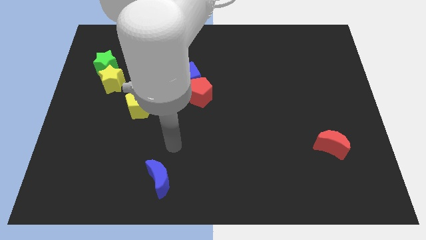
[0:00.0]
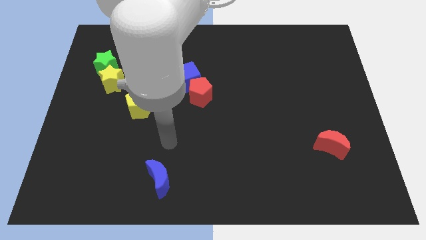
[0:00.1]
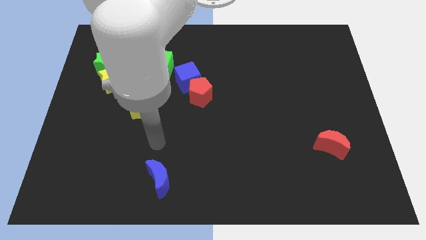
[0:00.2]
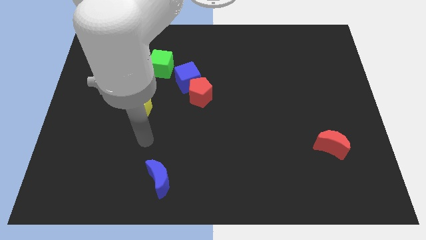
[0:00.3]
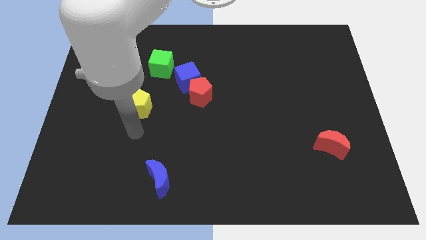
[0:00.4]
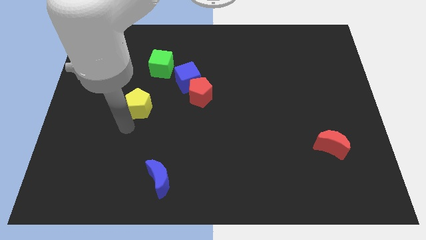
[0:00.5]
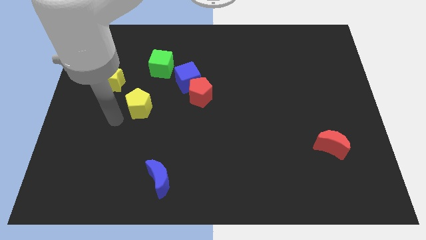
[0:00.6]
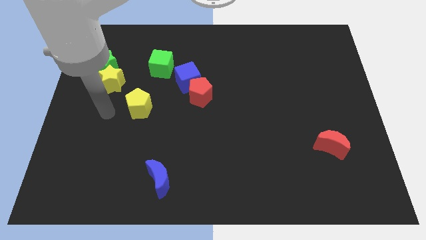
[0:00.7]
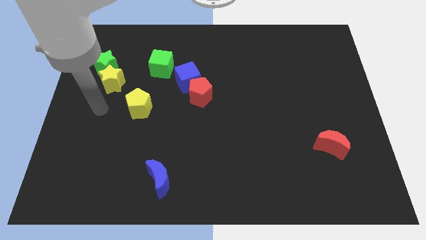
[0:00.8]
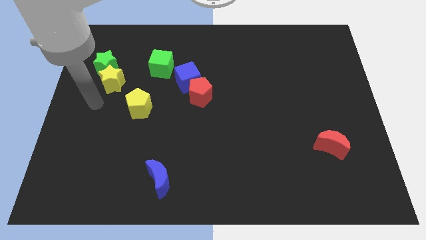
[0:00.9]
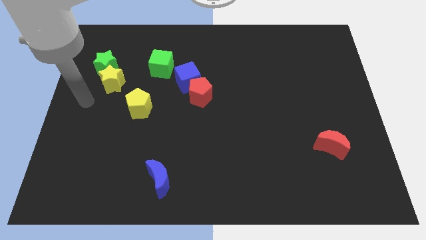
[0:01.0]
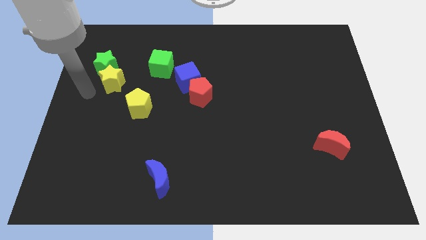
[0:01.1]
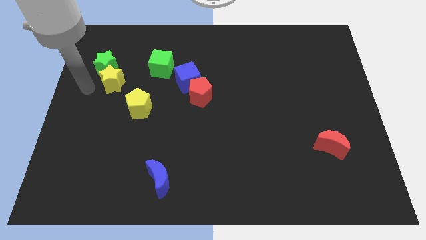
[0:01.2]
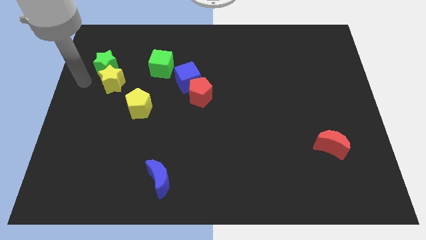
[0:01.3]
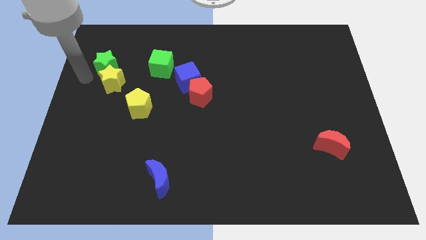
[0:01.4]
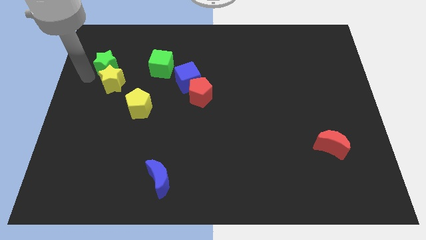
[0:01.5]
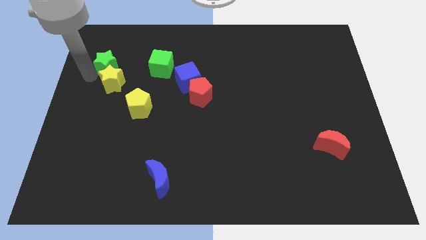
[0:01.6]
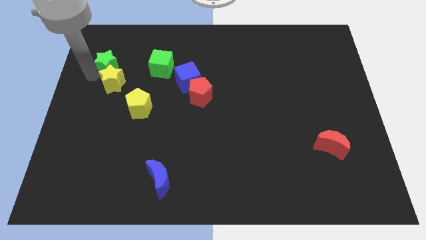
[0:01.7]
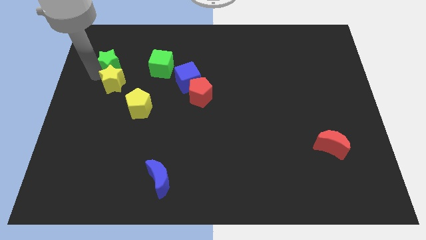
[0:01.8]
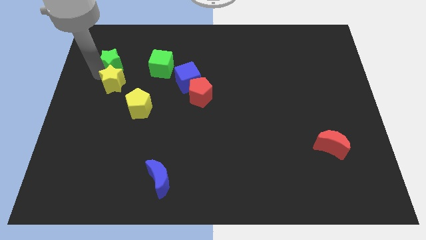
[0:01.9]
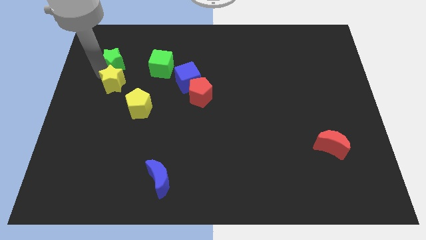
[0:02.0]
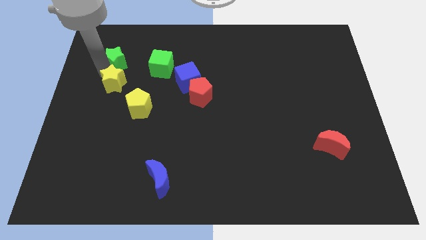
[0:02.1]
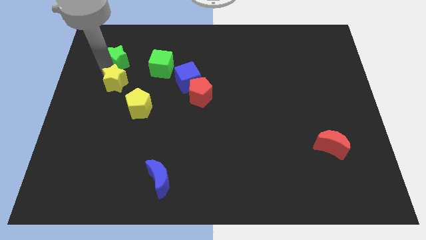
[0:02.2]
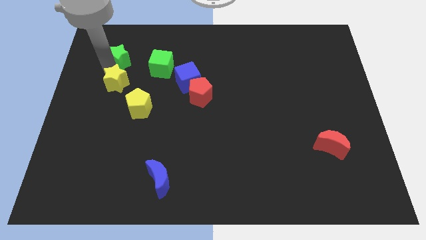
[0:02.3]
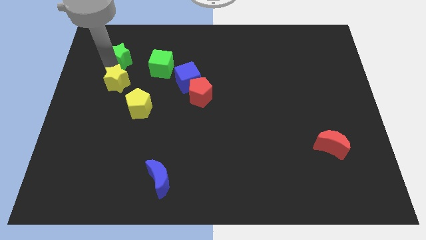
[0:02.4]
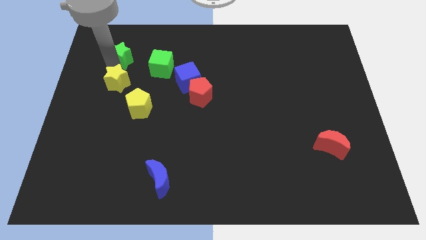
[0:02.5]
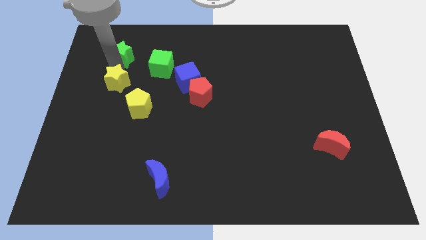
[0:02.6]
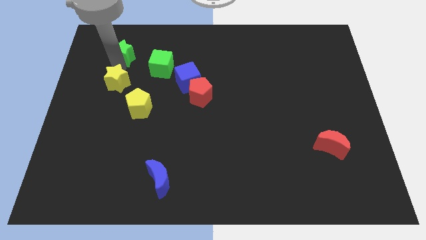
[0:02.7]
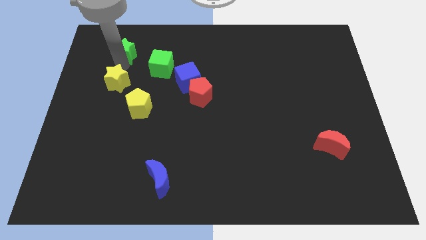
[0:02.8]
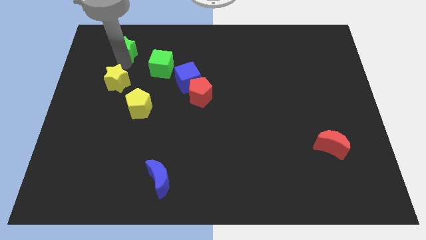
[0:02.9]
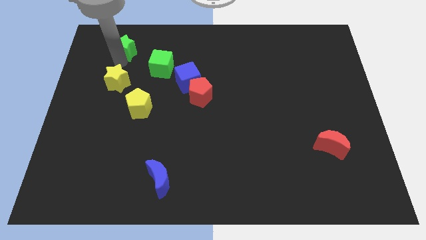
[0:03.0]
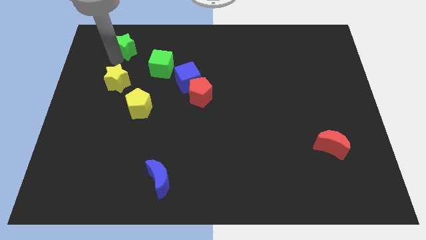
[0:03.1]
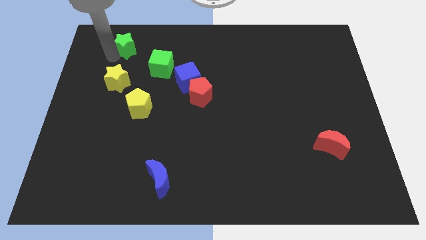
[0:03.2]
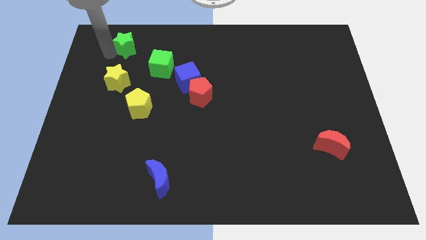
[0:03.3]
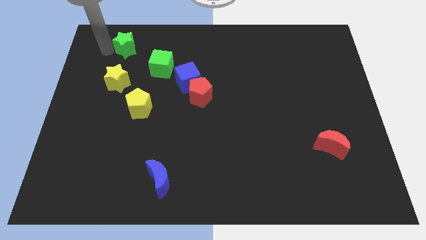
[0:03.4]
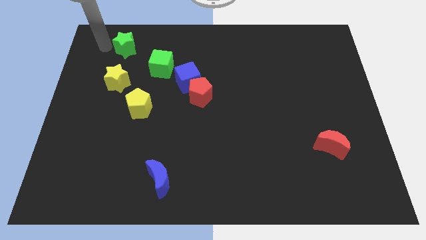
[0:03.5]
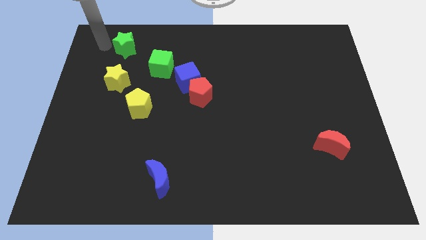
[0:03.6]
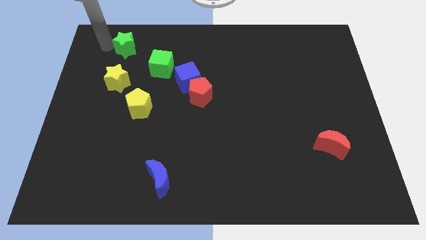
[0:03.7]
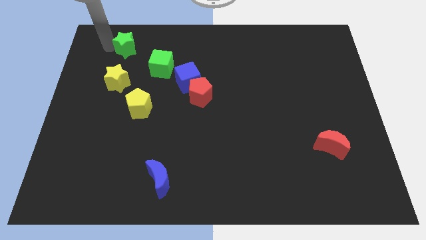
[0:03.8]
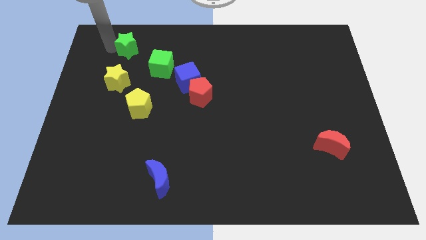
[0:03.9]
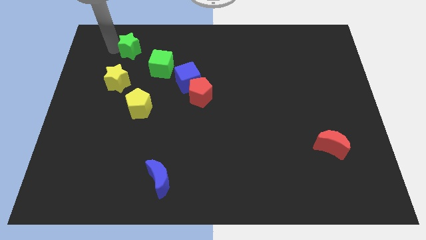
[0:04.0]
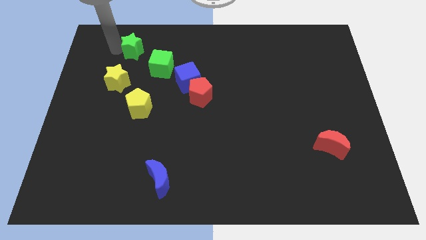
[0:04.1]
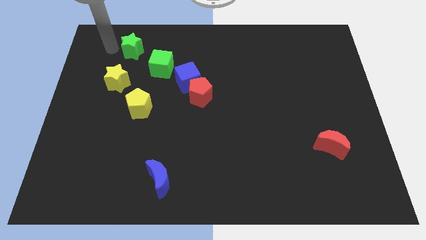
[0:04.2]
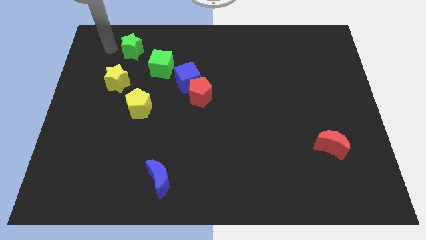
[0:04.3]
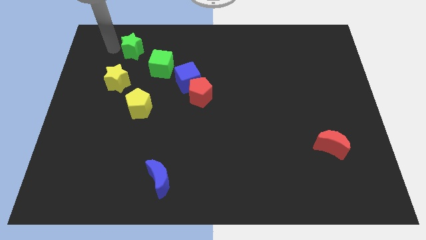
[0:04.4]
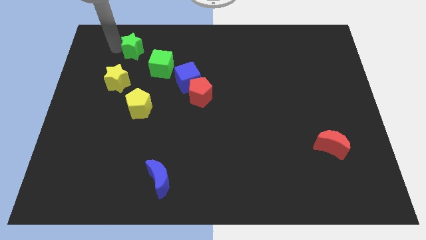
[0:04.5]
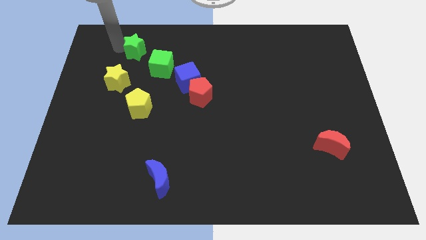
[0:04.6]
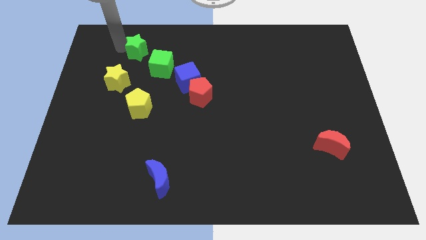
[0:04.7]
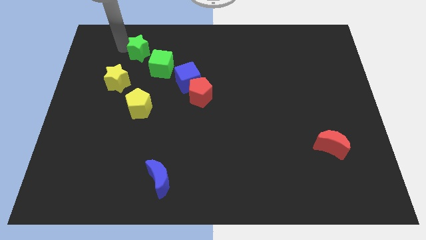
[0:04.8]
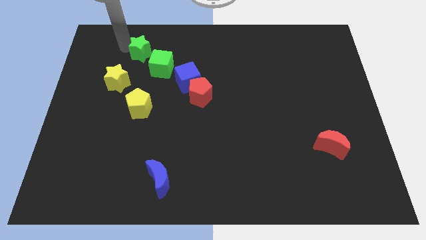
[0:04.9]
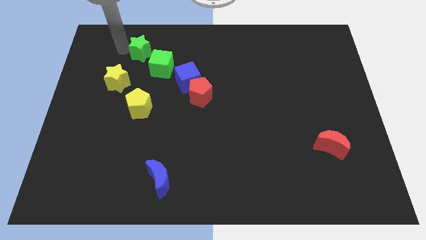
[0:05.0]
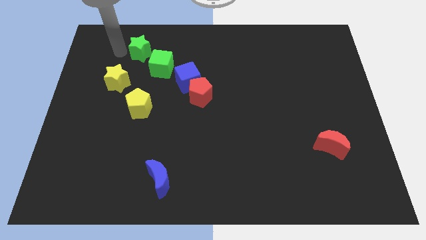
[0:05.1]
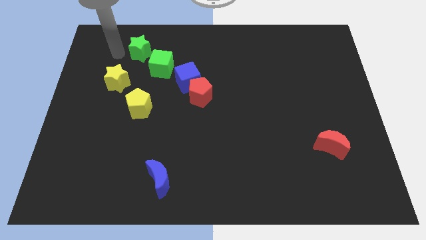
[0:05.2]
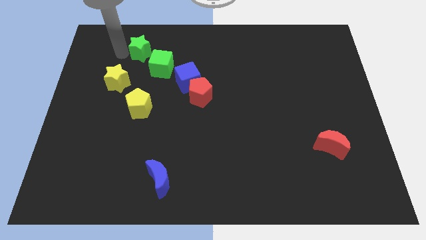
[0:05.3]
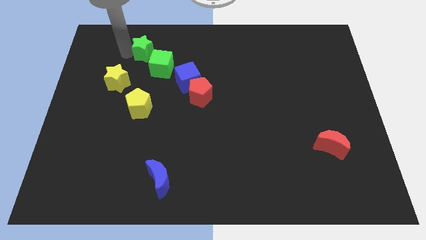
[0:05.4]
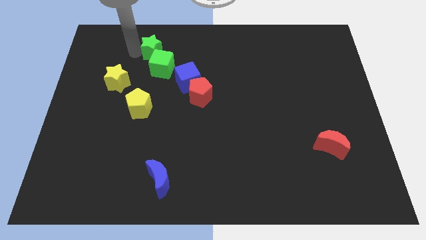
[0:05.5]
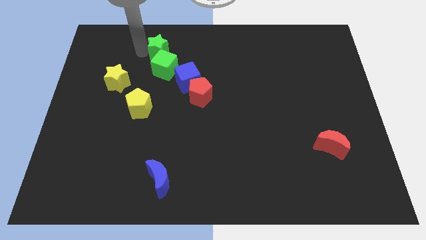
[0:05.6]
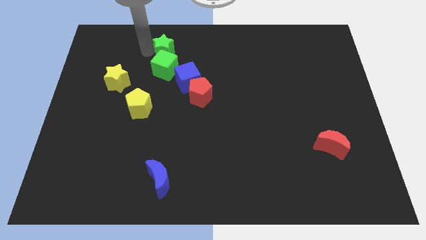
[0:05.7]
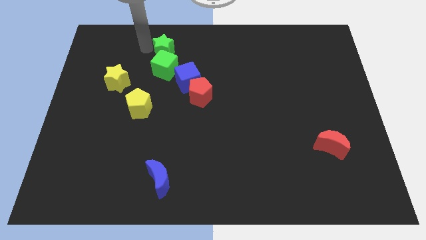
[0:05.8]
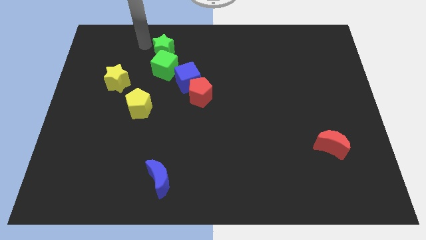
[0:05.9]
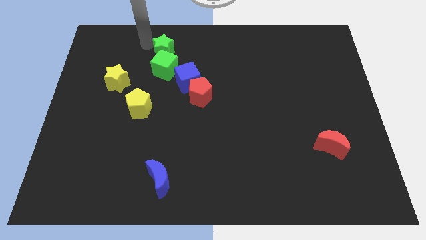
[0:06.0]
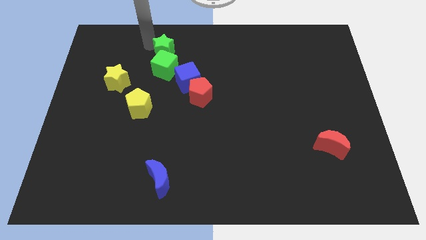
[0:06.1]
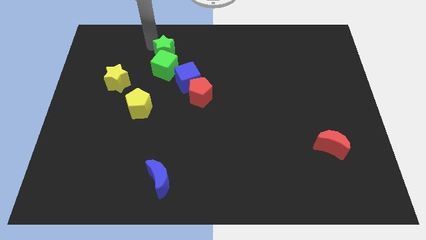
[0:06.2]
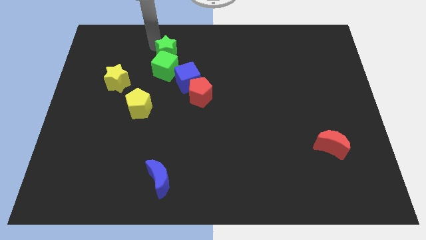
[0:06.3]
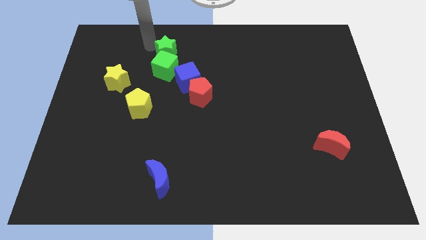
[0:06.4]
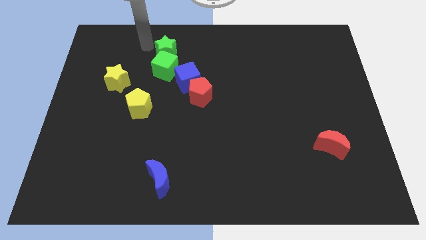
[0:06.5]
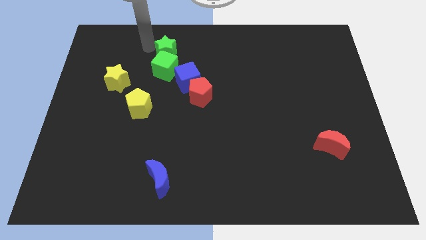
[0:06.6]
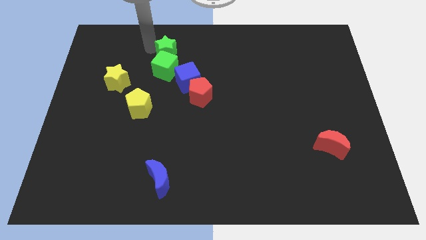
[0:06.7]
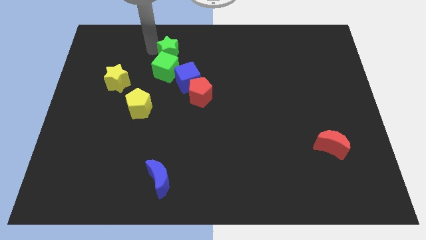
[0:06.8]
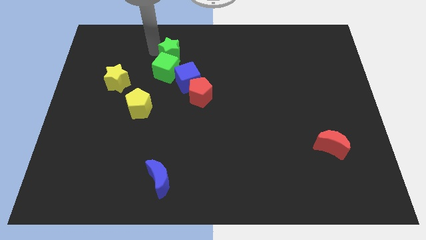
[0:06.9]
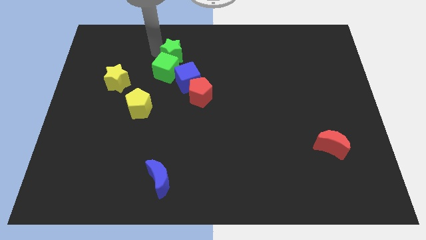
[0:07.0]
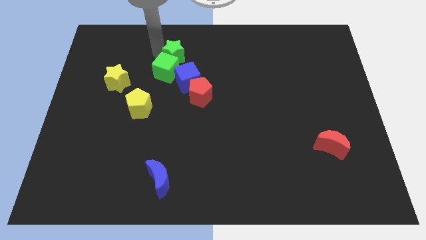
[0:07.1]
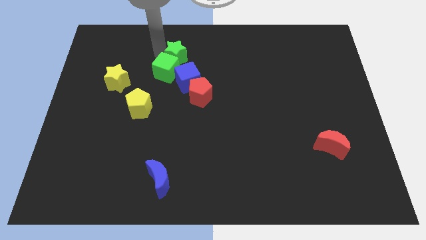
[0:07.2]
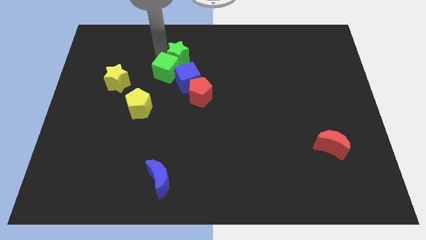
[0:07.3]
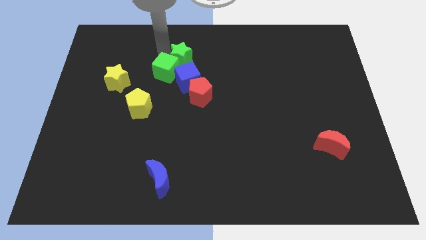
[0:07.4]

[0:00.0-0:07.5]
put the green star to the right of the green cube
